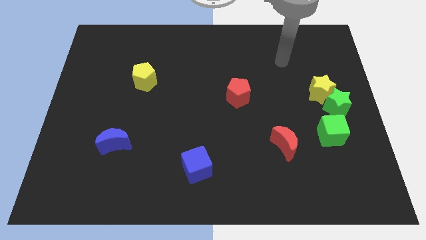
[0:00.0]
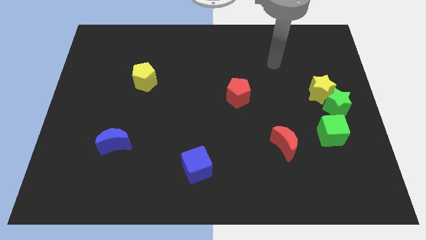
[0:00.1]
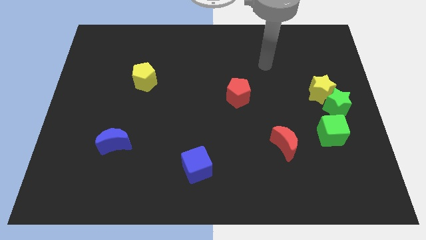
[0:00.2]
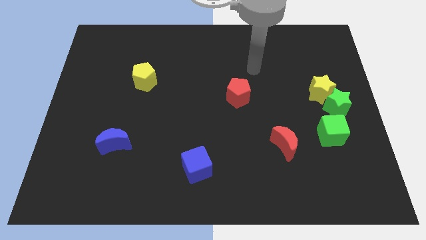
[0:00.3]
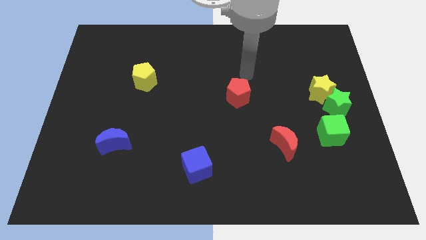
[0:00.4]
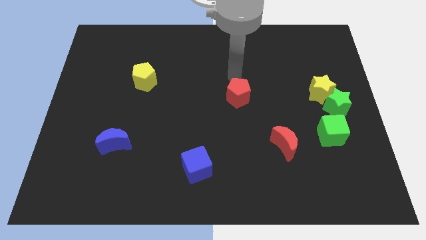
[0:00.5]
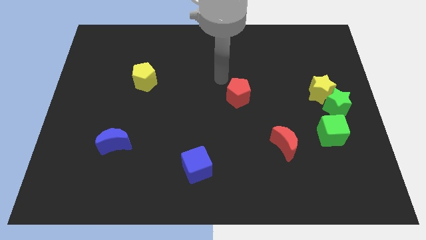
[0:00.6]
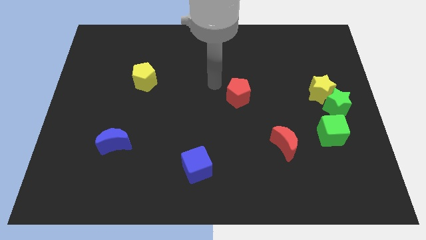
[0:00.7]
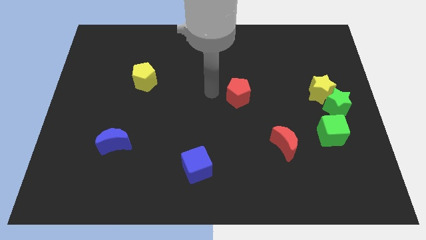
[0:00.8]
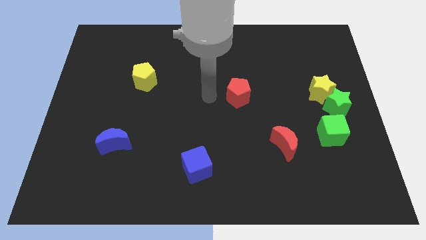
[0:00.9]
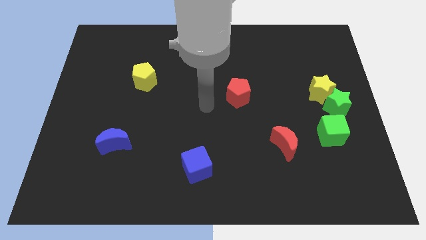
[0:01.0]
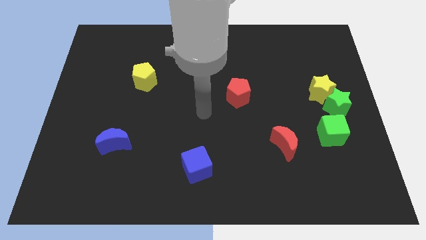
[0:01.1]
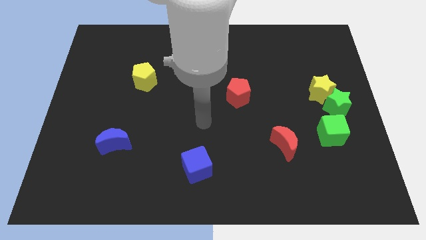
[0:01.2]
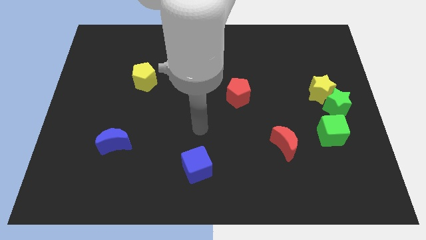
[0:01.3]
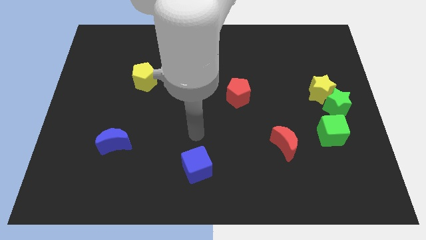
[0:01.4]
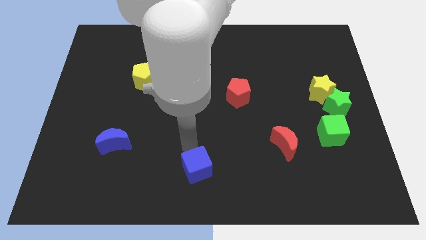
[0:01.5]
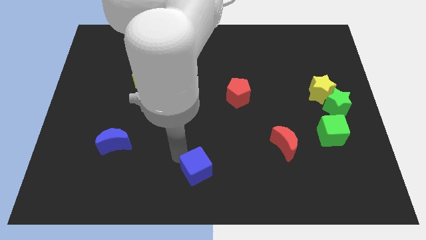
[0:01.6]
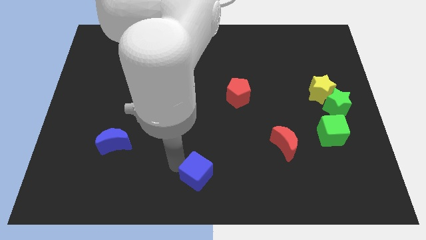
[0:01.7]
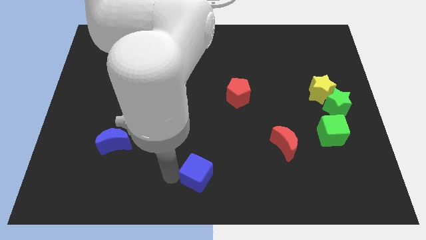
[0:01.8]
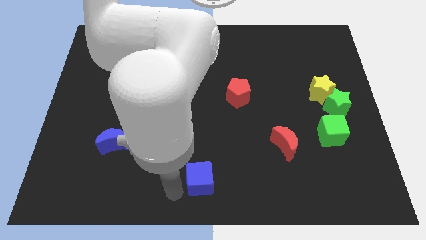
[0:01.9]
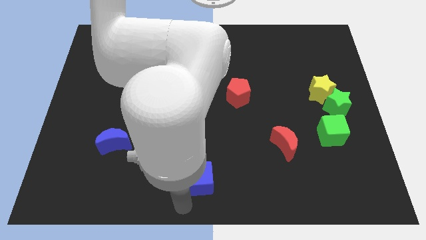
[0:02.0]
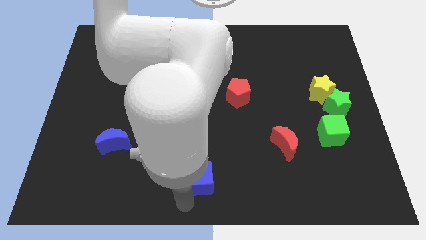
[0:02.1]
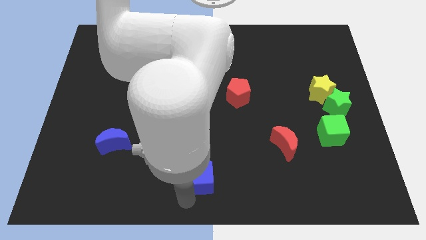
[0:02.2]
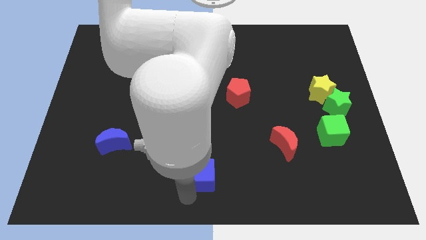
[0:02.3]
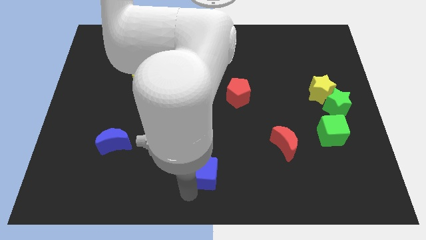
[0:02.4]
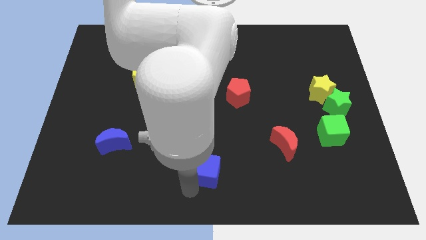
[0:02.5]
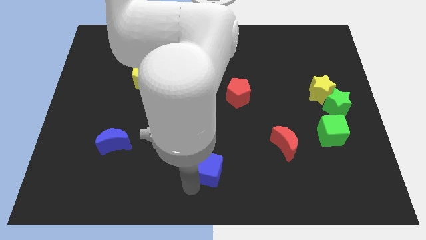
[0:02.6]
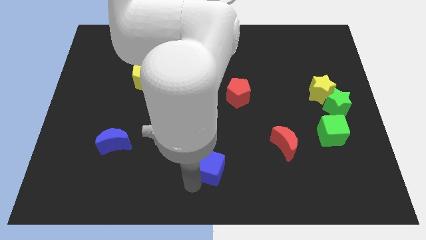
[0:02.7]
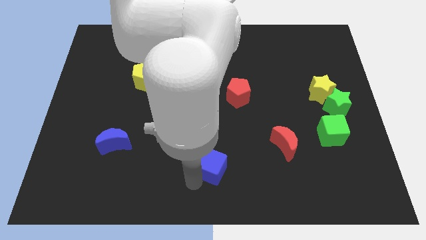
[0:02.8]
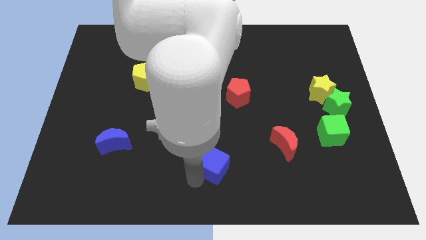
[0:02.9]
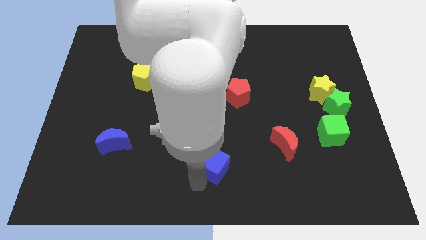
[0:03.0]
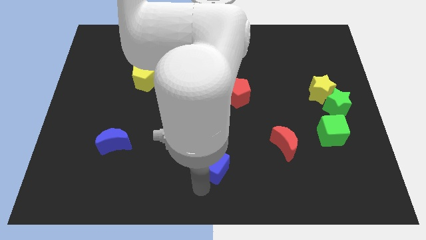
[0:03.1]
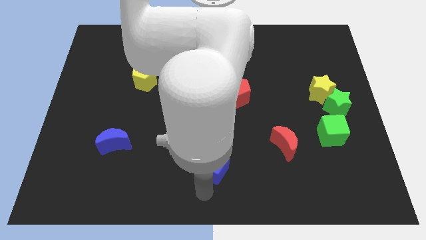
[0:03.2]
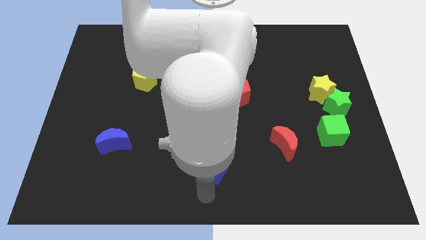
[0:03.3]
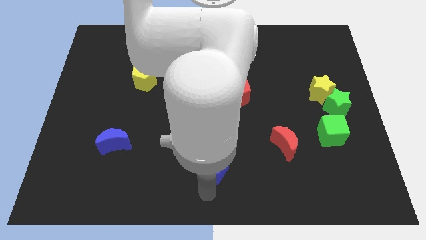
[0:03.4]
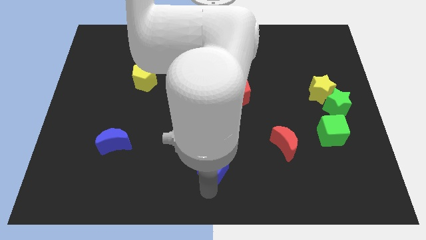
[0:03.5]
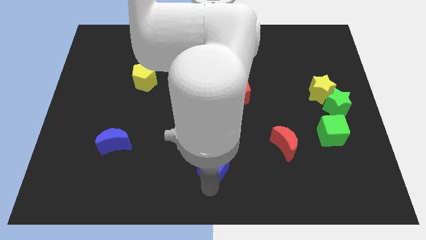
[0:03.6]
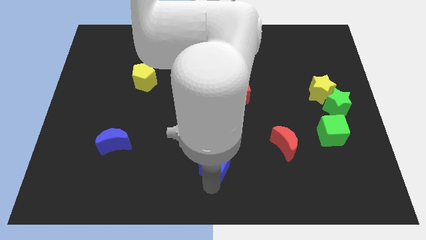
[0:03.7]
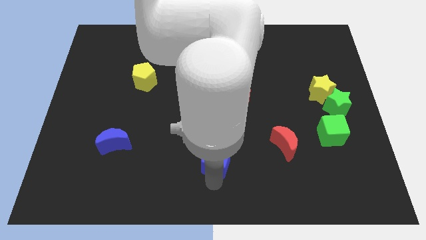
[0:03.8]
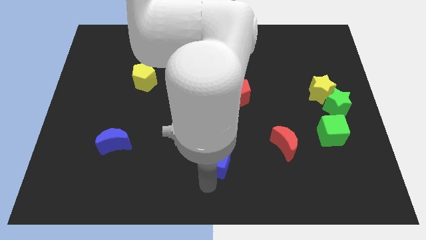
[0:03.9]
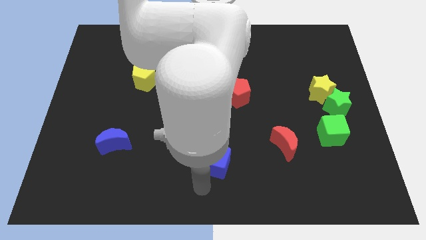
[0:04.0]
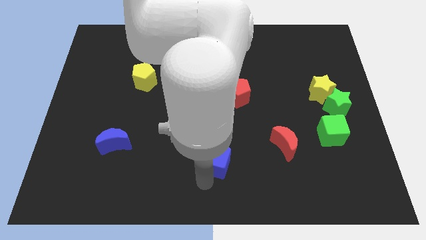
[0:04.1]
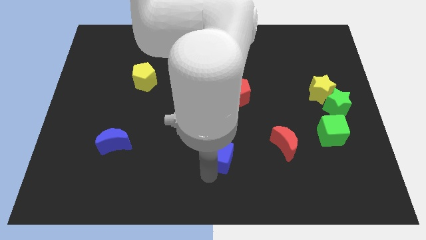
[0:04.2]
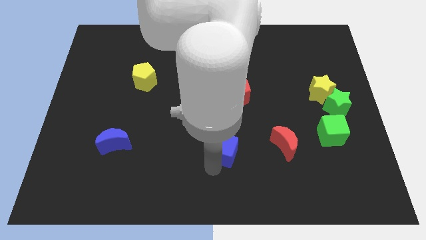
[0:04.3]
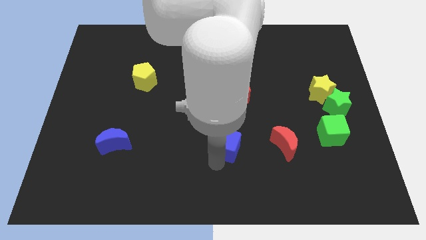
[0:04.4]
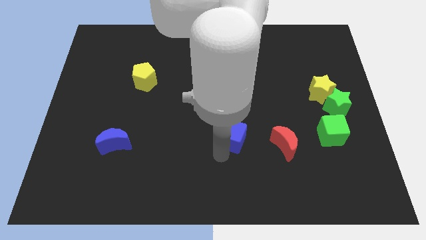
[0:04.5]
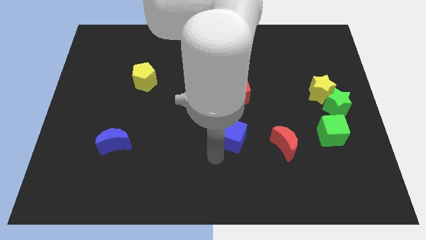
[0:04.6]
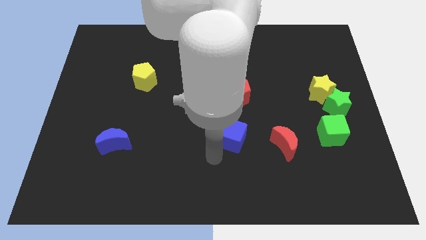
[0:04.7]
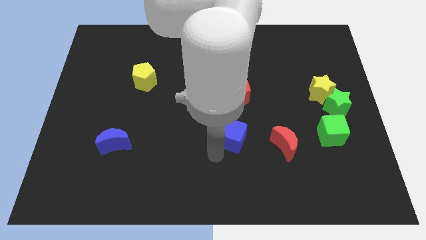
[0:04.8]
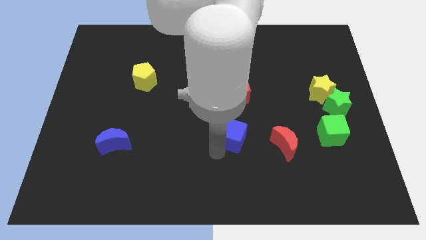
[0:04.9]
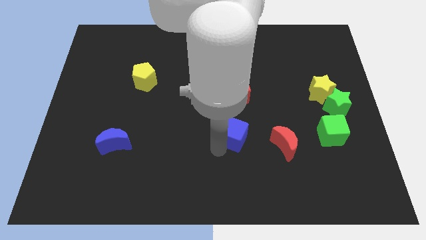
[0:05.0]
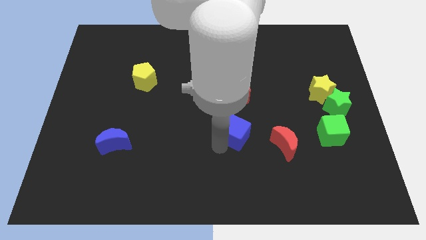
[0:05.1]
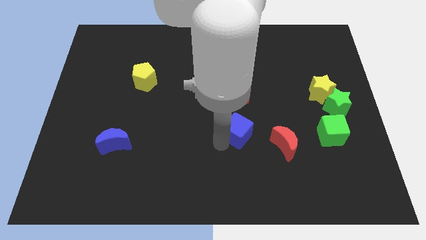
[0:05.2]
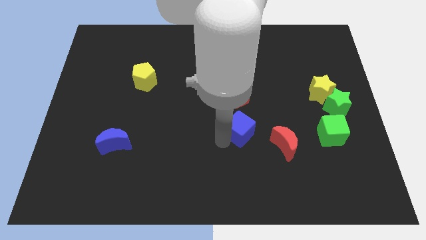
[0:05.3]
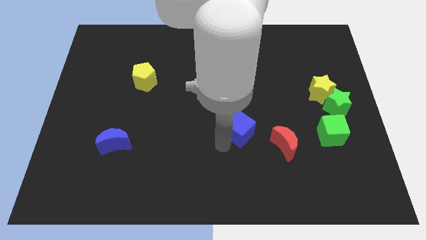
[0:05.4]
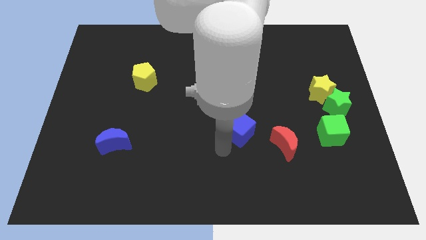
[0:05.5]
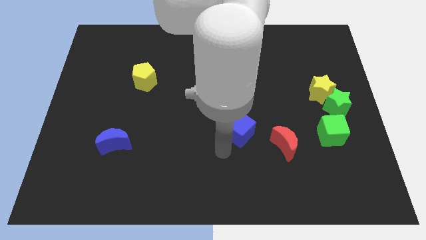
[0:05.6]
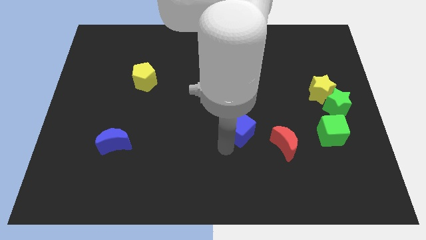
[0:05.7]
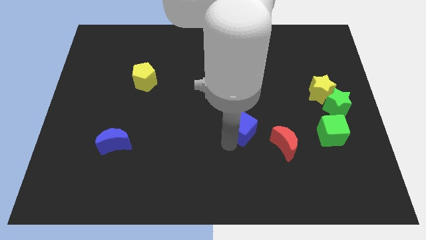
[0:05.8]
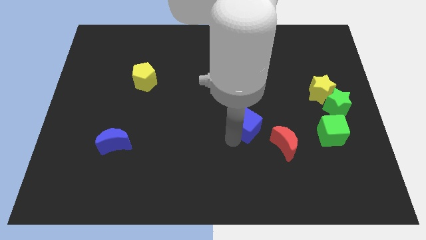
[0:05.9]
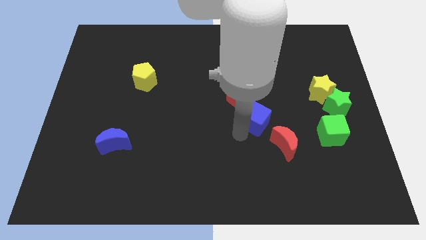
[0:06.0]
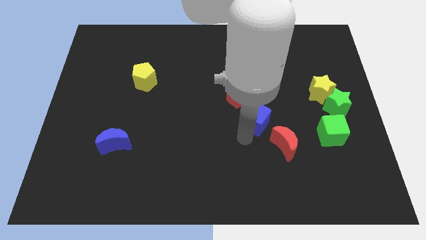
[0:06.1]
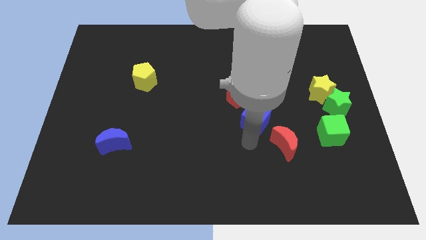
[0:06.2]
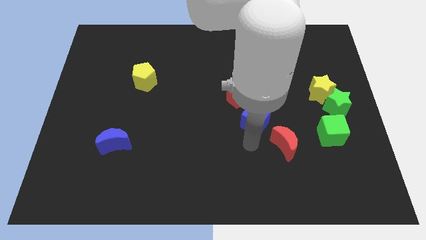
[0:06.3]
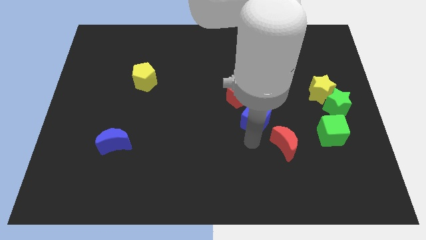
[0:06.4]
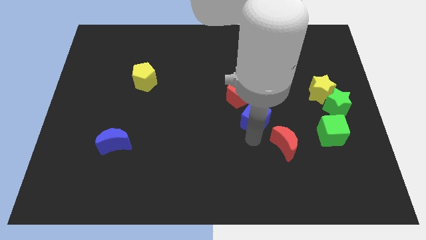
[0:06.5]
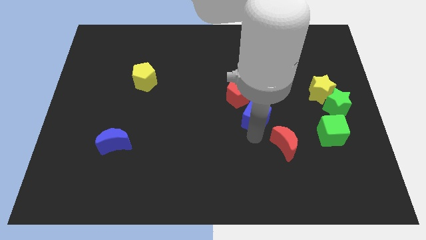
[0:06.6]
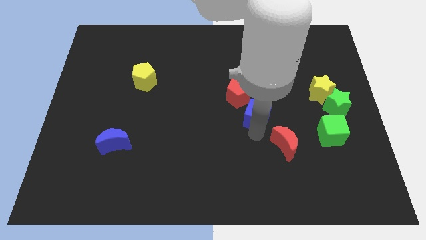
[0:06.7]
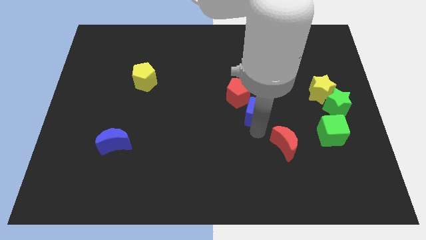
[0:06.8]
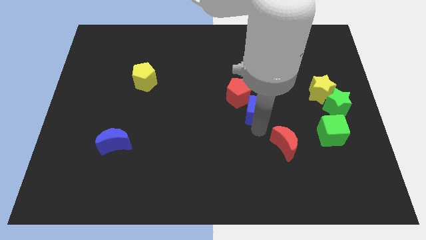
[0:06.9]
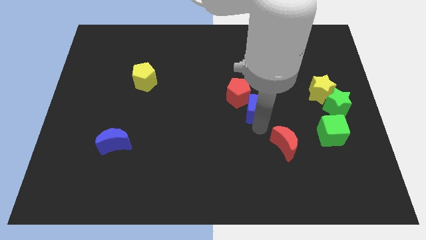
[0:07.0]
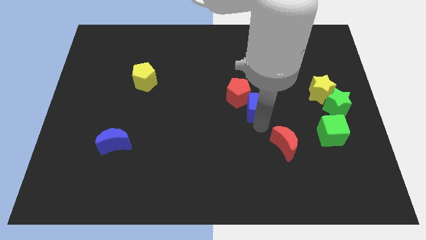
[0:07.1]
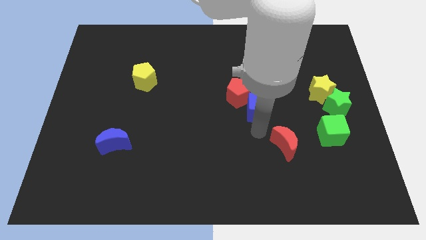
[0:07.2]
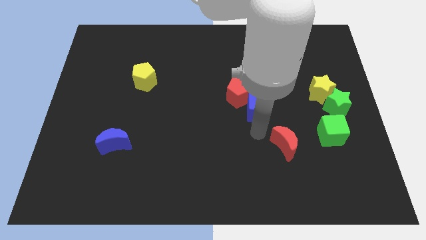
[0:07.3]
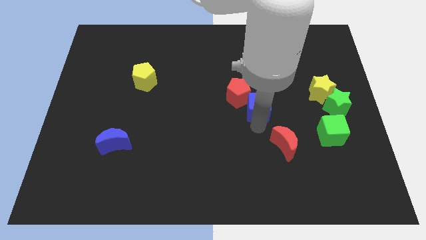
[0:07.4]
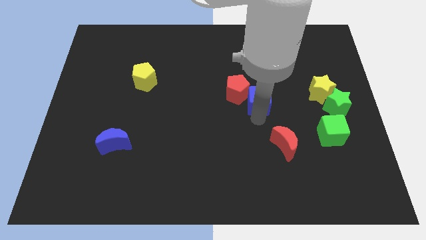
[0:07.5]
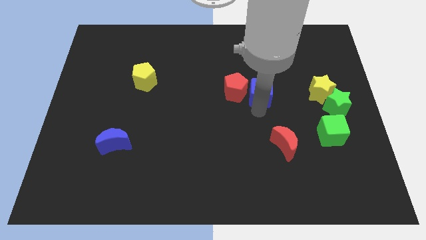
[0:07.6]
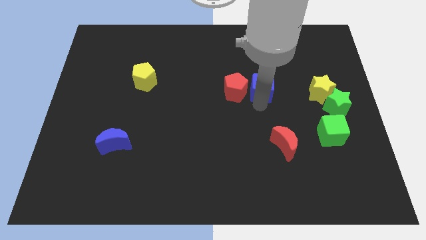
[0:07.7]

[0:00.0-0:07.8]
put the blue cube diagonally up and to the right of the red pentagon
